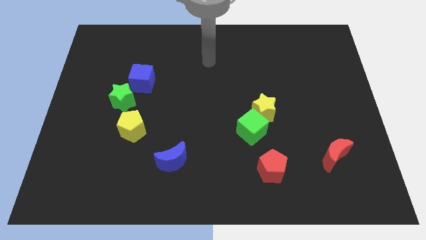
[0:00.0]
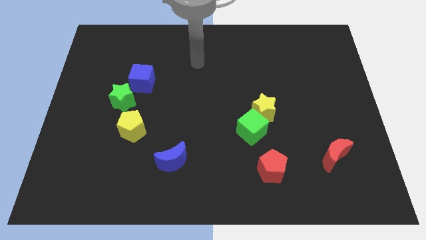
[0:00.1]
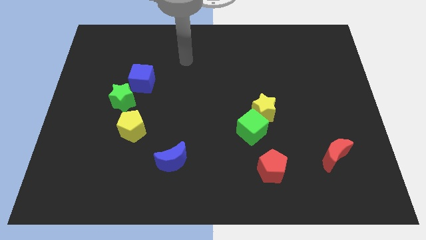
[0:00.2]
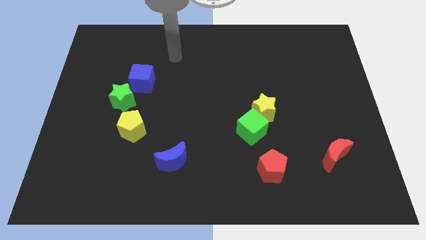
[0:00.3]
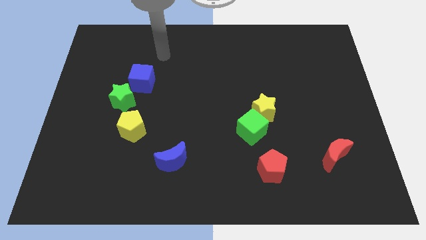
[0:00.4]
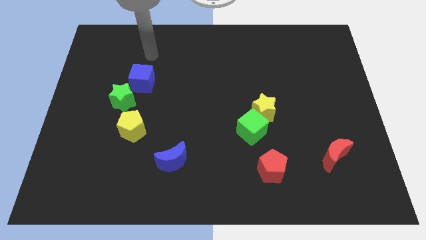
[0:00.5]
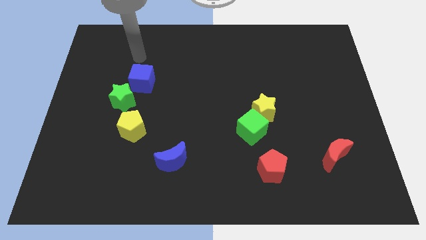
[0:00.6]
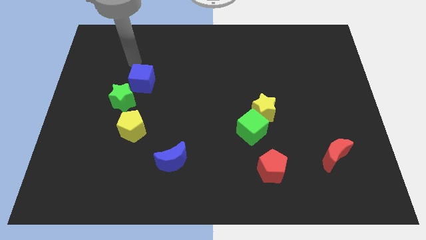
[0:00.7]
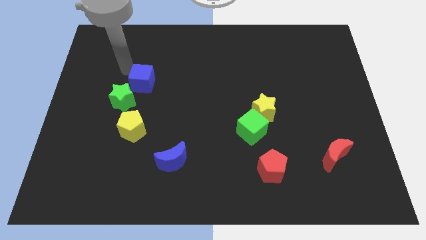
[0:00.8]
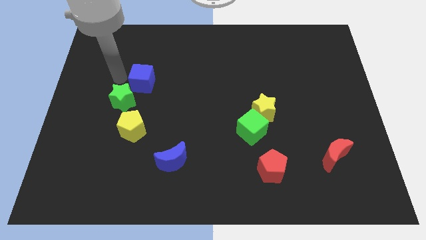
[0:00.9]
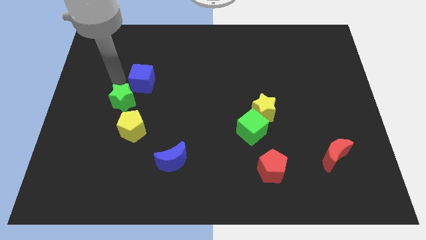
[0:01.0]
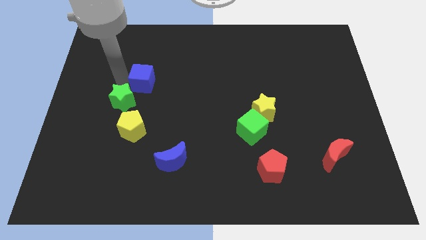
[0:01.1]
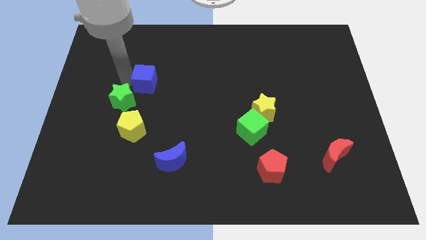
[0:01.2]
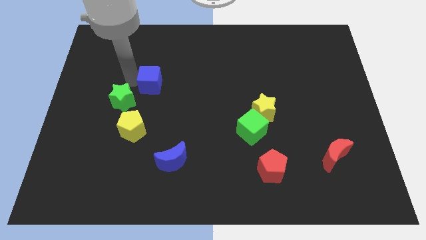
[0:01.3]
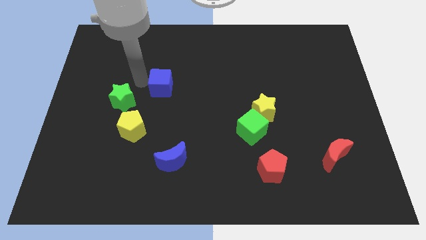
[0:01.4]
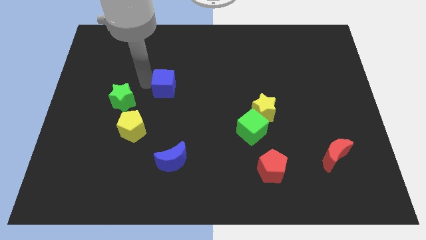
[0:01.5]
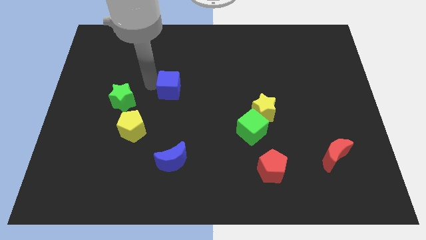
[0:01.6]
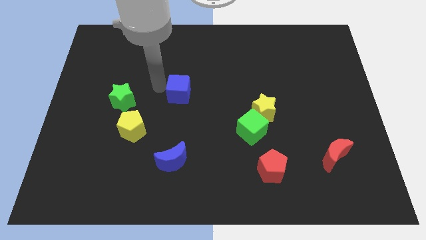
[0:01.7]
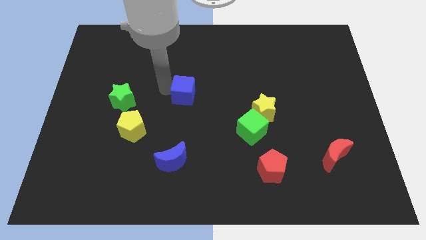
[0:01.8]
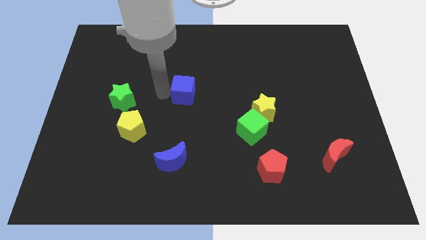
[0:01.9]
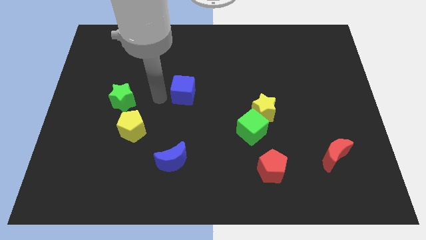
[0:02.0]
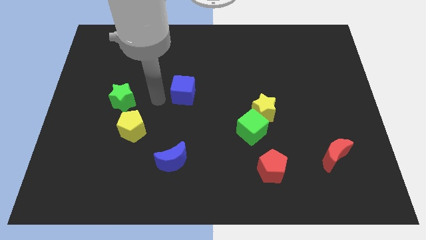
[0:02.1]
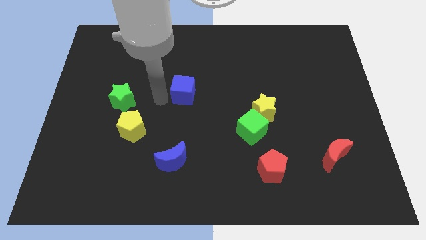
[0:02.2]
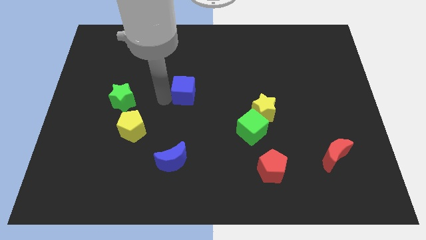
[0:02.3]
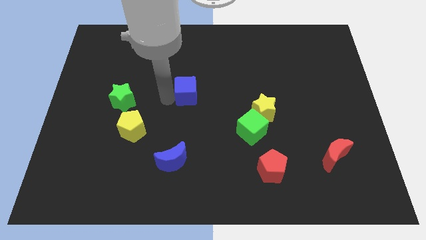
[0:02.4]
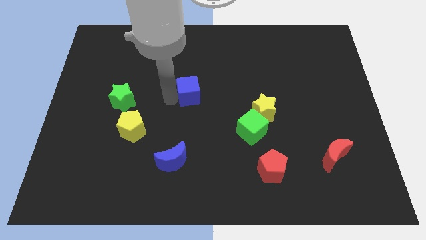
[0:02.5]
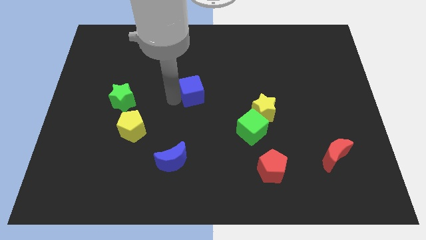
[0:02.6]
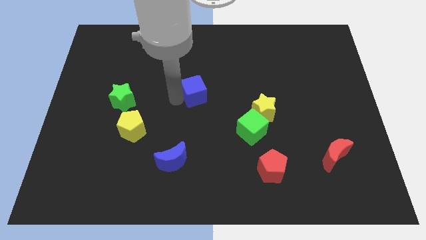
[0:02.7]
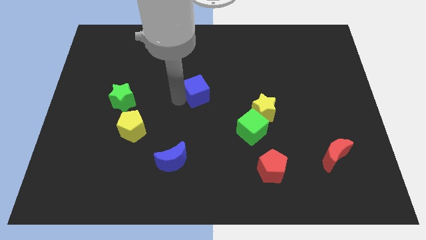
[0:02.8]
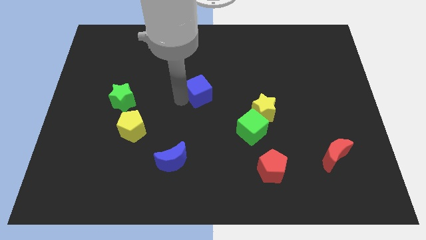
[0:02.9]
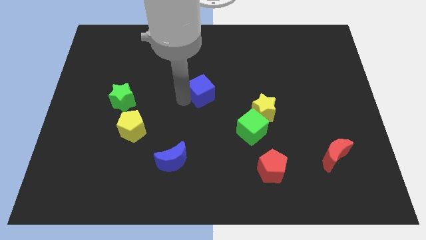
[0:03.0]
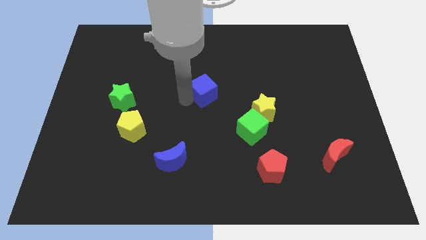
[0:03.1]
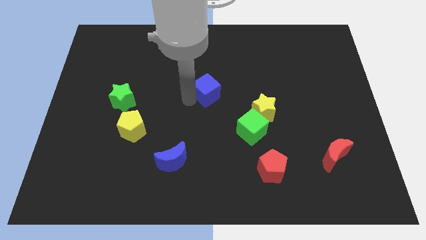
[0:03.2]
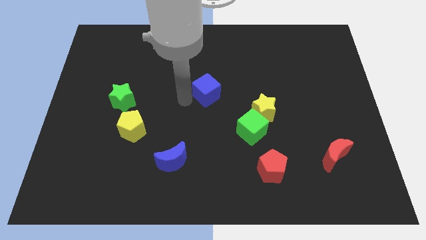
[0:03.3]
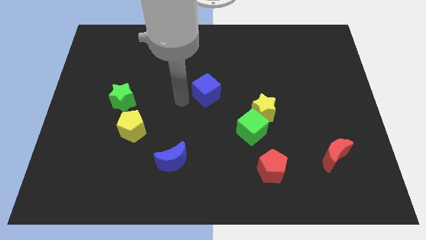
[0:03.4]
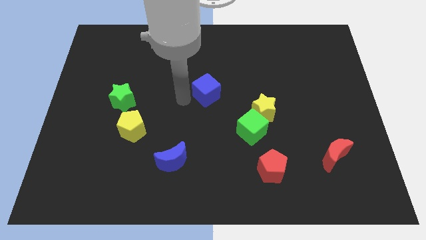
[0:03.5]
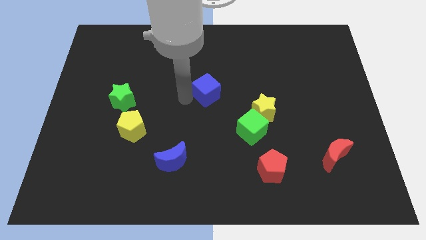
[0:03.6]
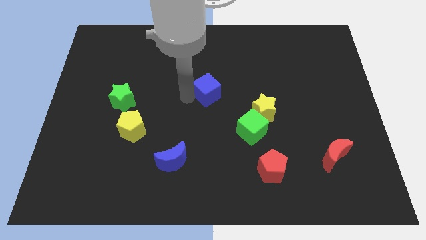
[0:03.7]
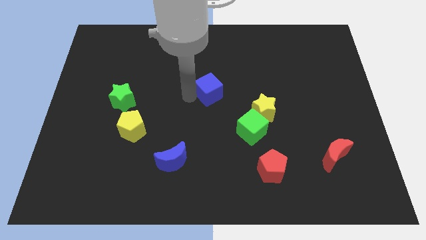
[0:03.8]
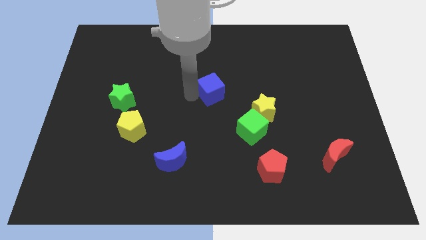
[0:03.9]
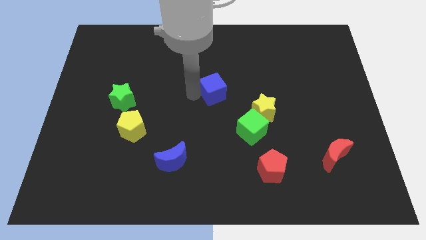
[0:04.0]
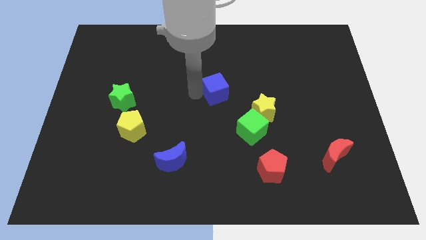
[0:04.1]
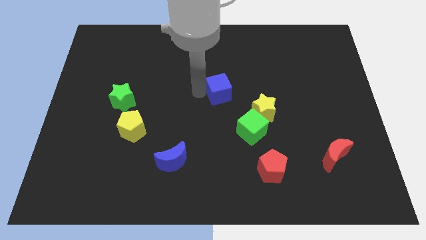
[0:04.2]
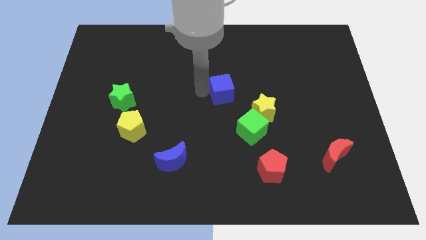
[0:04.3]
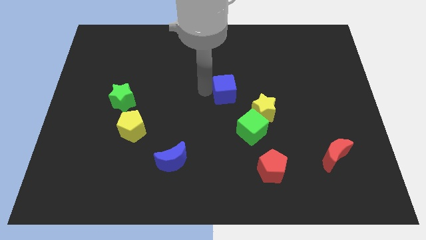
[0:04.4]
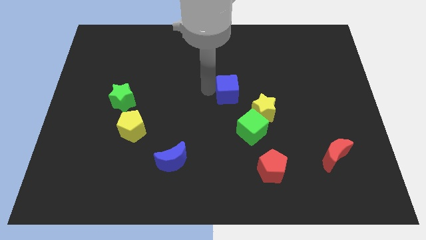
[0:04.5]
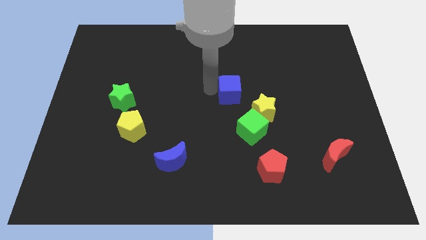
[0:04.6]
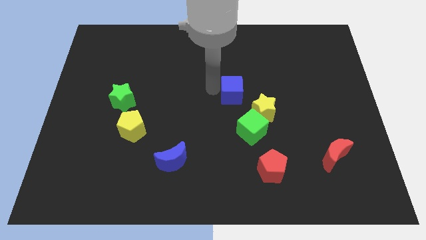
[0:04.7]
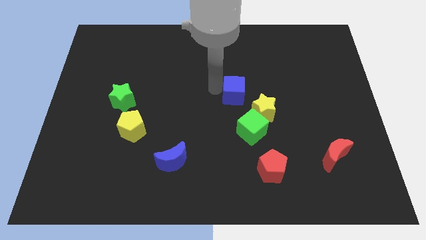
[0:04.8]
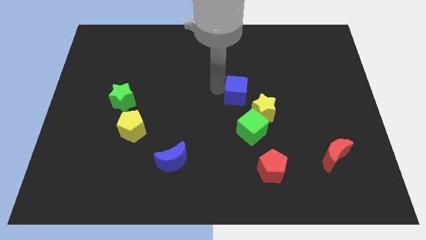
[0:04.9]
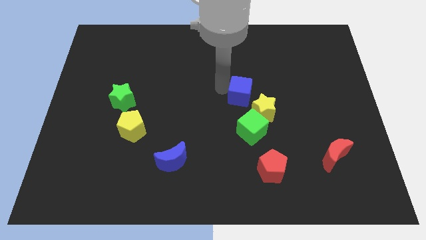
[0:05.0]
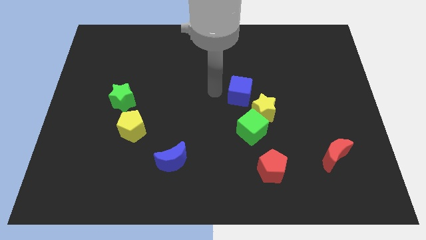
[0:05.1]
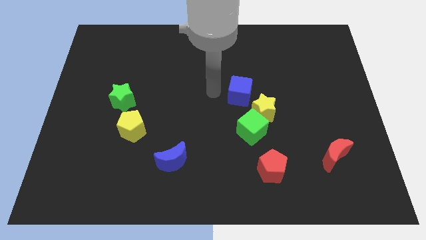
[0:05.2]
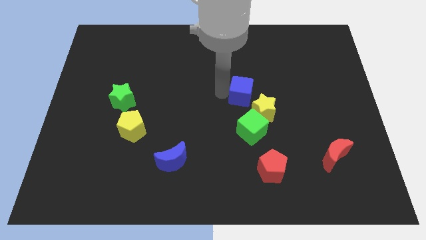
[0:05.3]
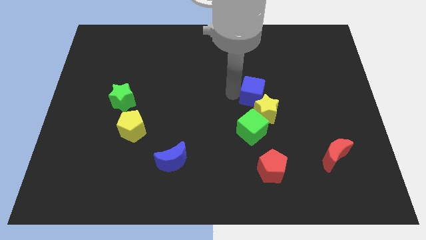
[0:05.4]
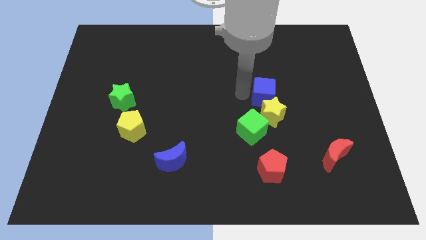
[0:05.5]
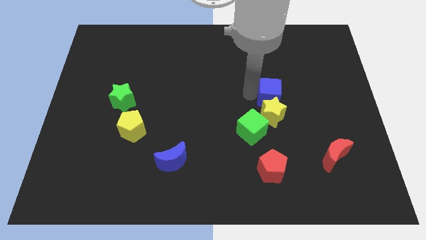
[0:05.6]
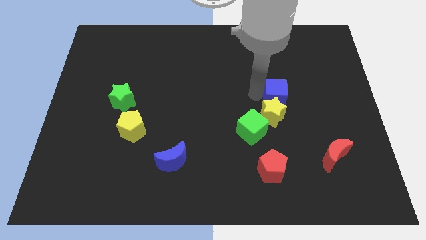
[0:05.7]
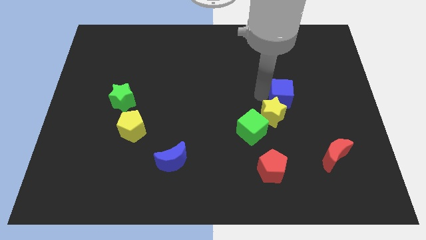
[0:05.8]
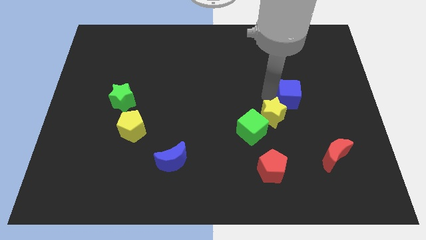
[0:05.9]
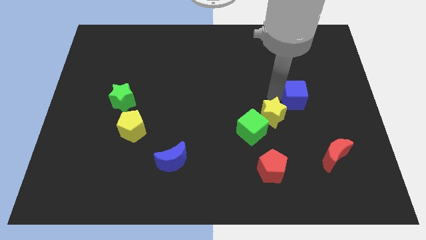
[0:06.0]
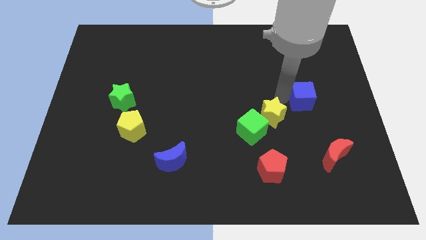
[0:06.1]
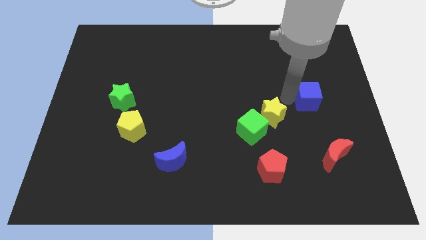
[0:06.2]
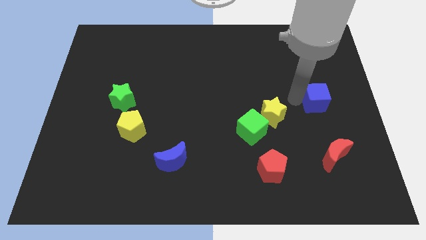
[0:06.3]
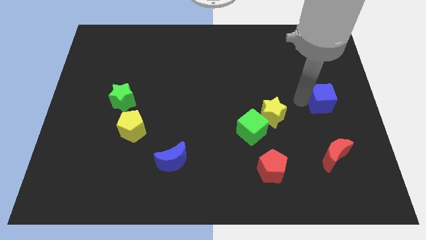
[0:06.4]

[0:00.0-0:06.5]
slide the blue cube to the right side of the board

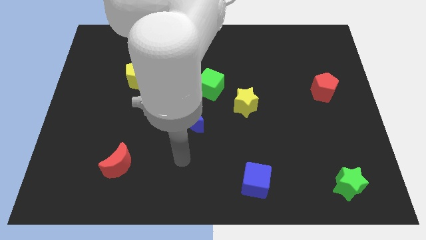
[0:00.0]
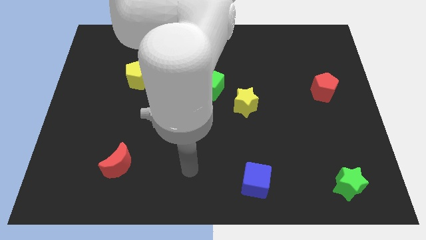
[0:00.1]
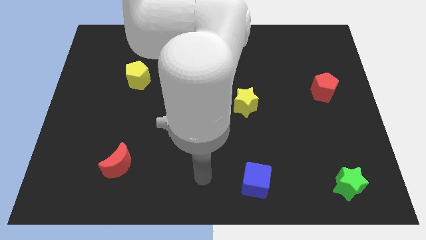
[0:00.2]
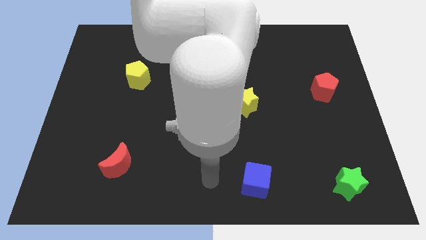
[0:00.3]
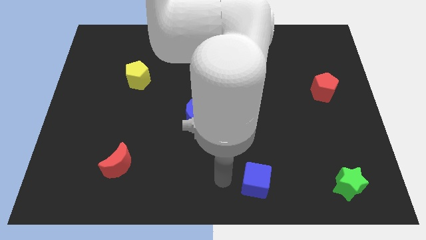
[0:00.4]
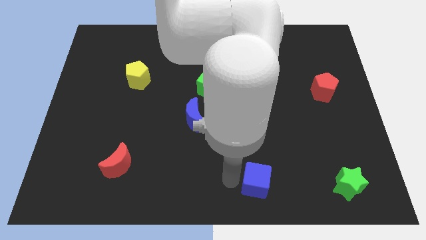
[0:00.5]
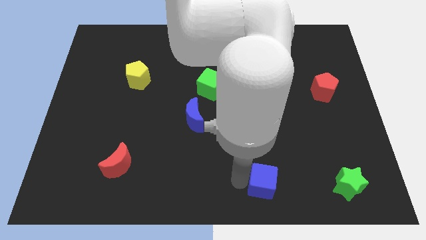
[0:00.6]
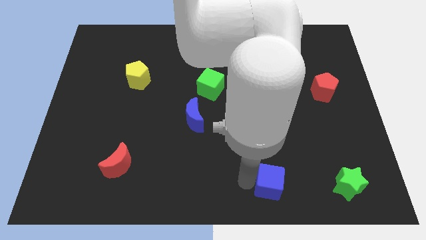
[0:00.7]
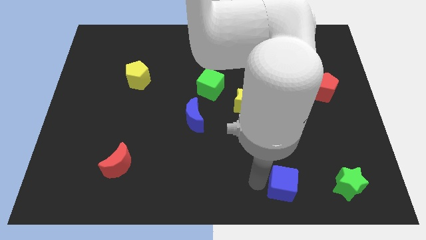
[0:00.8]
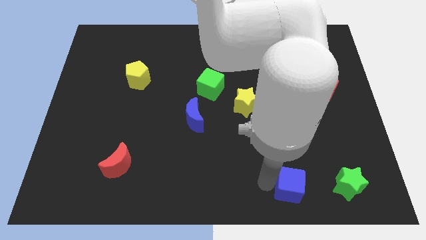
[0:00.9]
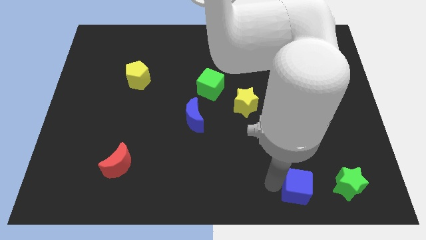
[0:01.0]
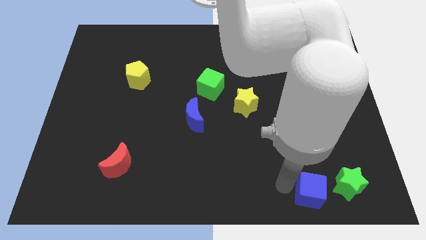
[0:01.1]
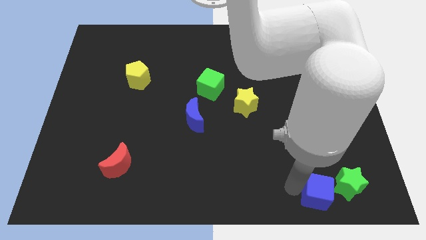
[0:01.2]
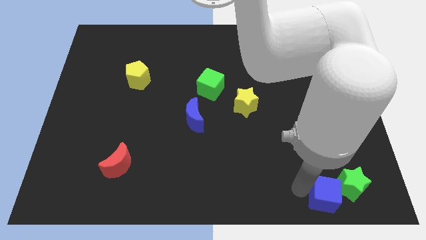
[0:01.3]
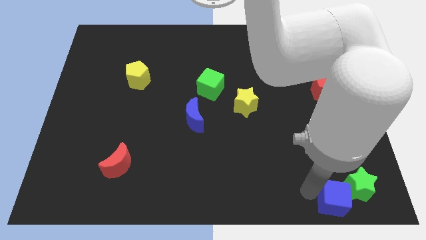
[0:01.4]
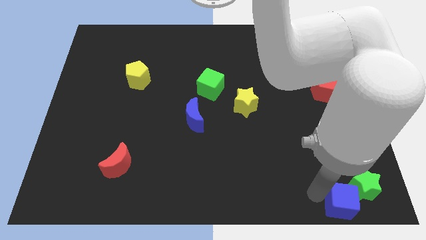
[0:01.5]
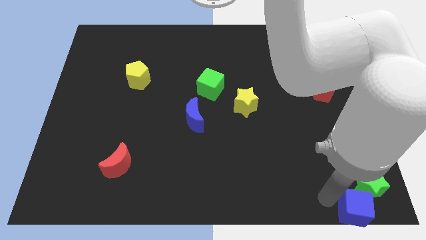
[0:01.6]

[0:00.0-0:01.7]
push the blue cube to the bottom right of the board
